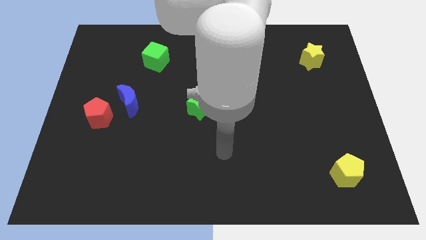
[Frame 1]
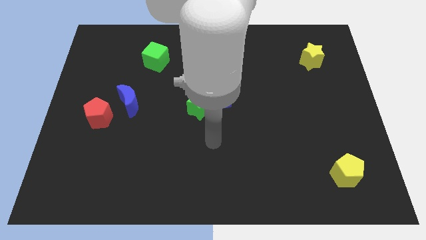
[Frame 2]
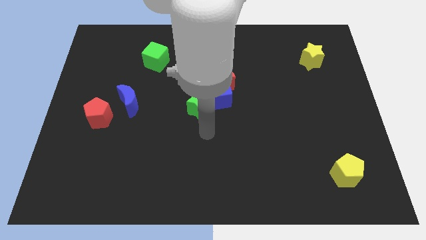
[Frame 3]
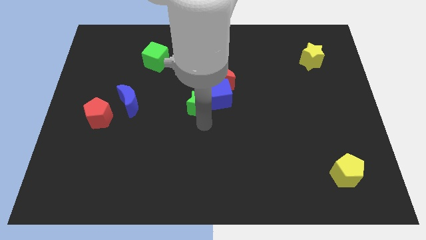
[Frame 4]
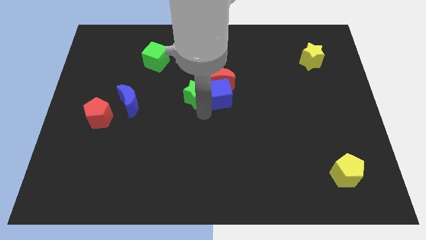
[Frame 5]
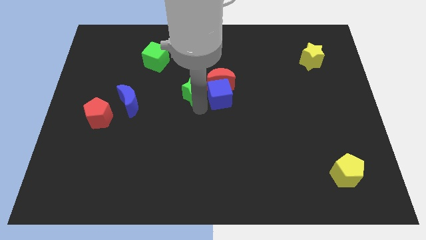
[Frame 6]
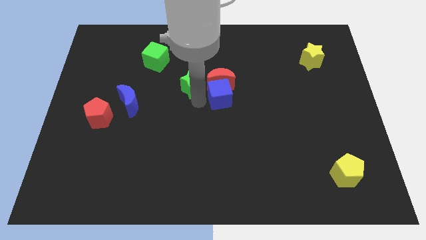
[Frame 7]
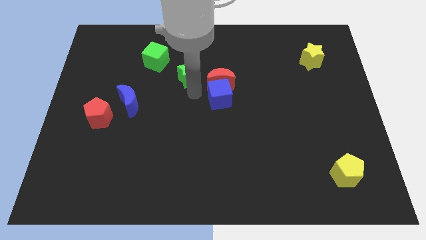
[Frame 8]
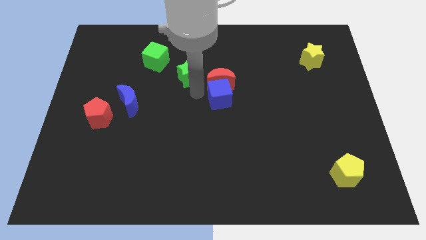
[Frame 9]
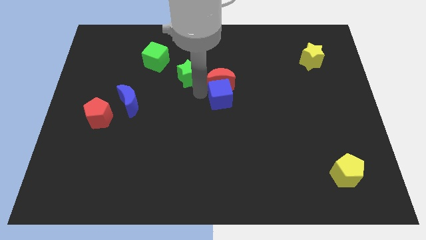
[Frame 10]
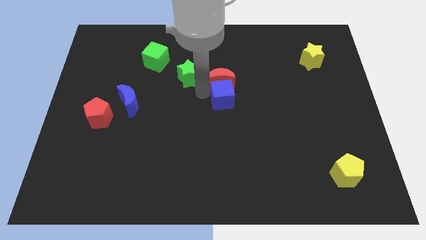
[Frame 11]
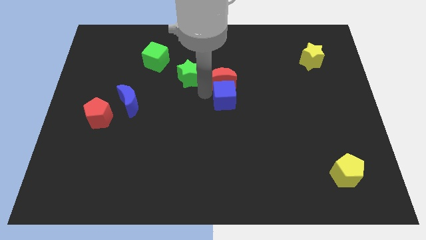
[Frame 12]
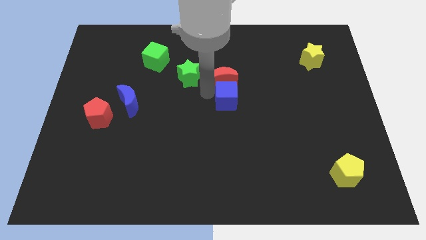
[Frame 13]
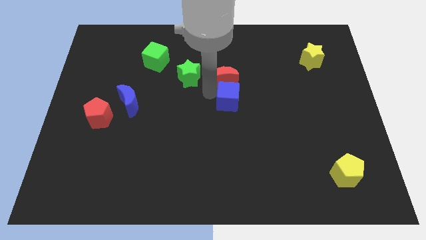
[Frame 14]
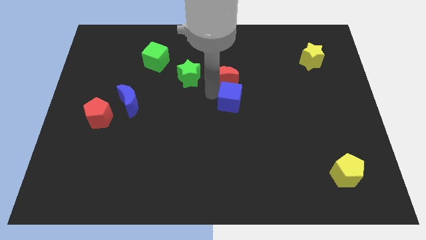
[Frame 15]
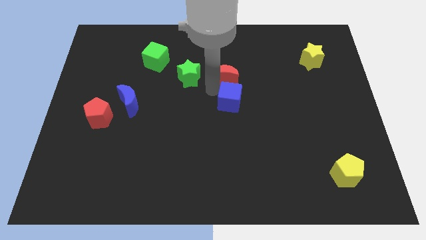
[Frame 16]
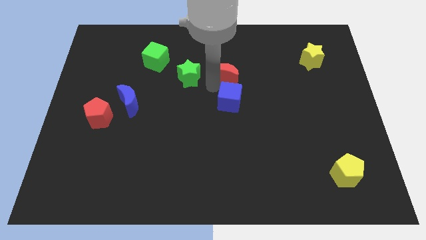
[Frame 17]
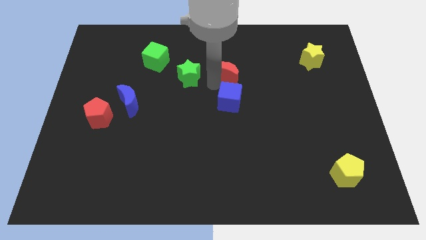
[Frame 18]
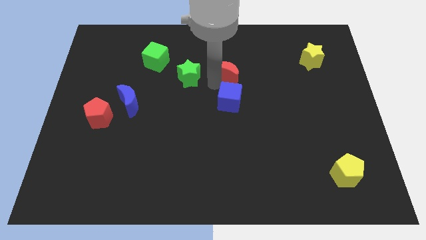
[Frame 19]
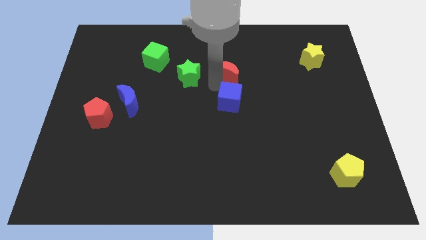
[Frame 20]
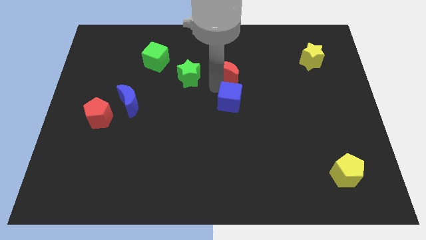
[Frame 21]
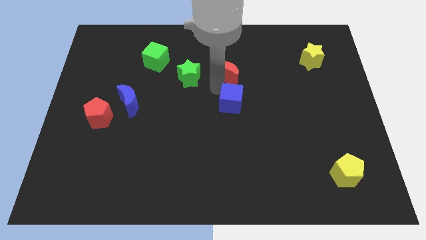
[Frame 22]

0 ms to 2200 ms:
separate the blue cube from the red moon and green star

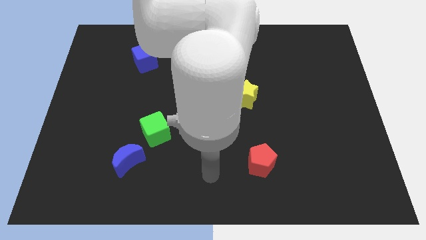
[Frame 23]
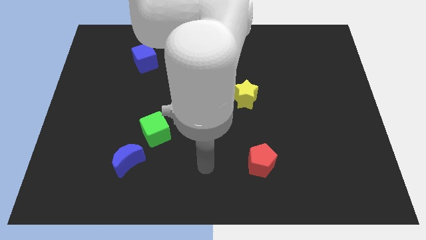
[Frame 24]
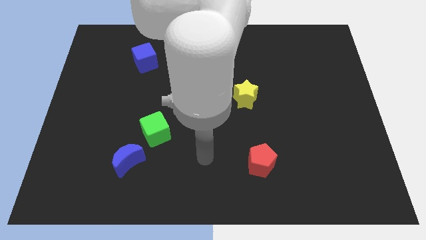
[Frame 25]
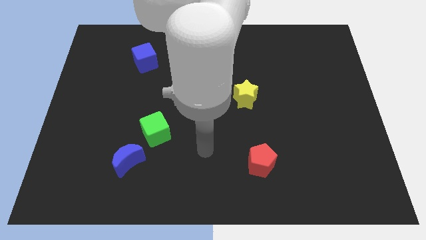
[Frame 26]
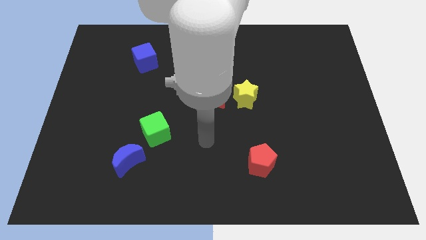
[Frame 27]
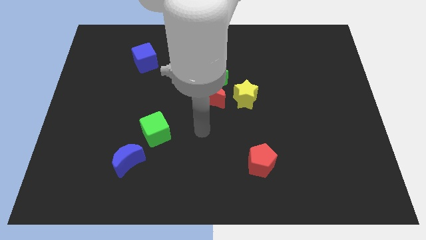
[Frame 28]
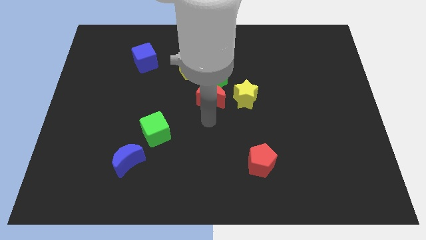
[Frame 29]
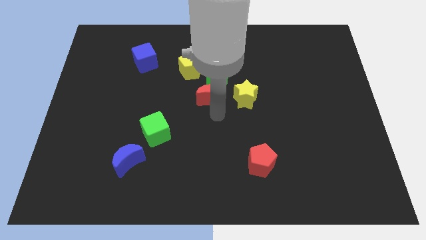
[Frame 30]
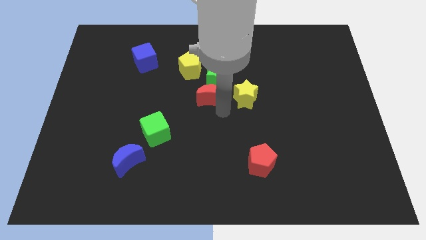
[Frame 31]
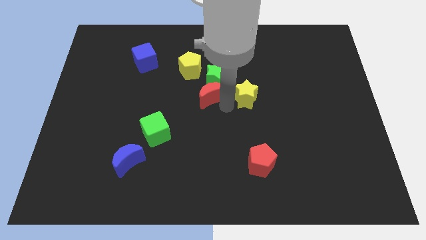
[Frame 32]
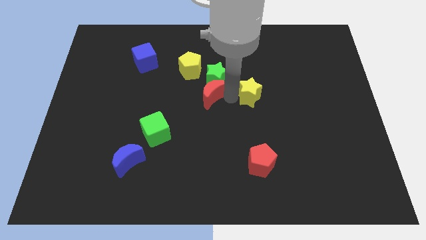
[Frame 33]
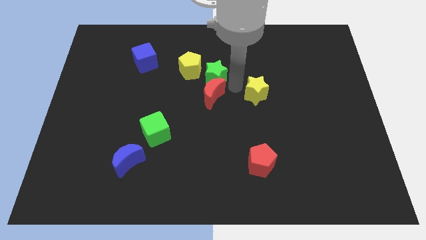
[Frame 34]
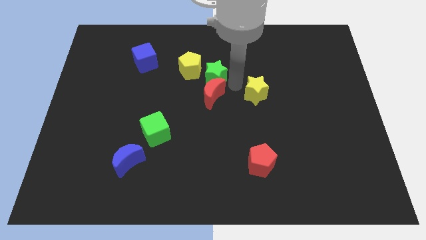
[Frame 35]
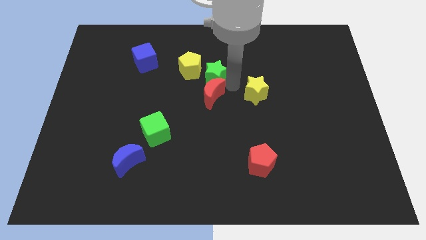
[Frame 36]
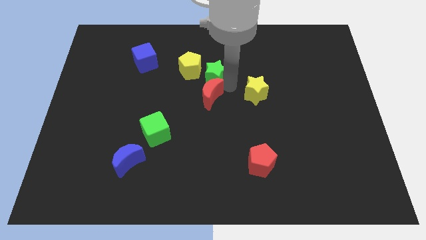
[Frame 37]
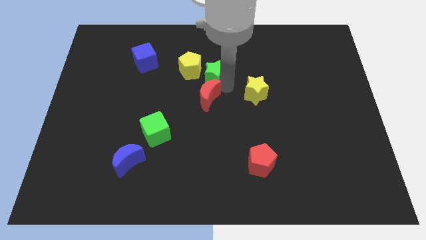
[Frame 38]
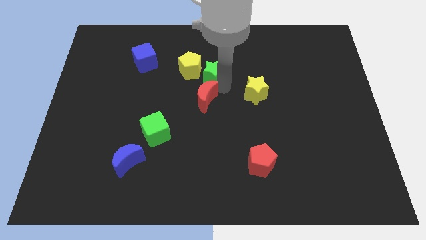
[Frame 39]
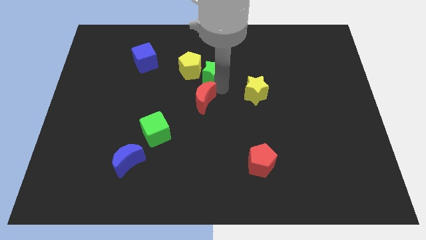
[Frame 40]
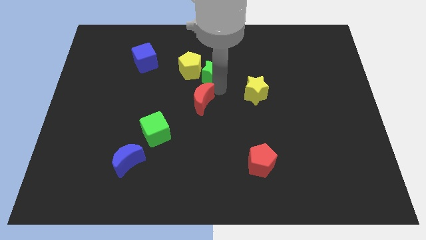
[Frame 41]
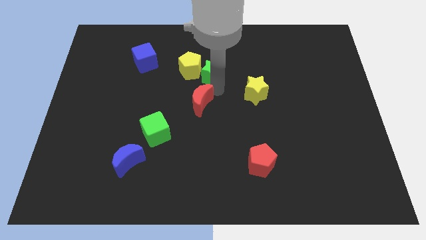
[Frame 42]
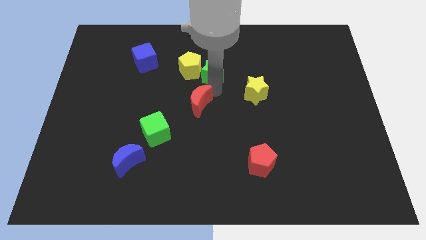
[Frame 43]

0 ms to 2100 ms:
move the red moon away from the green star and yellow star

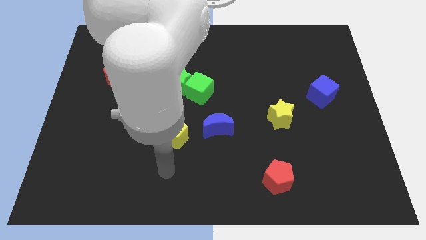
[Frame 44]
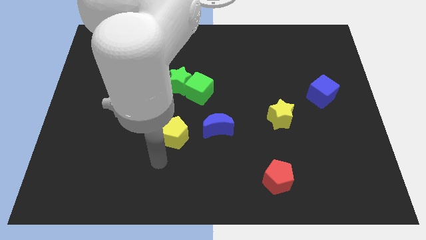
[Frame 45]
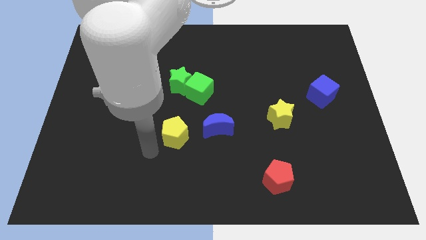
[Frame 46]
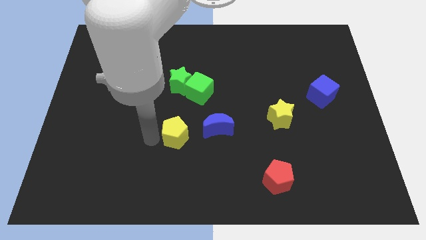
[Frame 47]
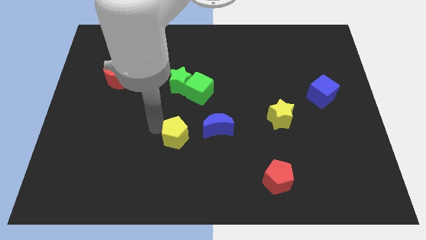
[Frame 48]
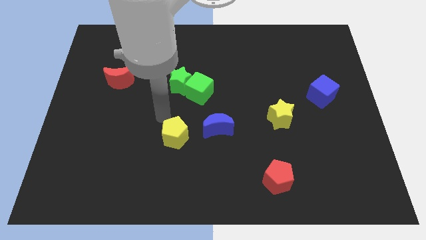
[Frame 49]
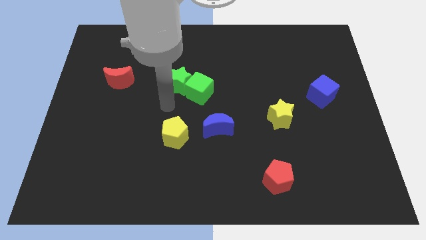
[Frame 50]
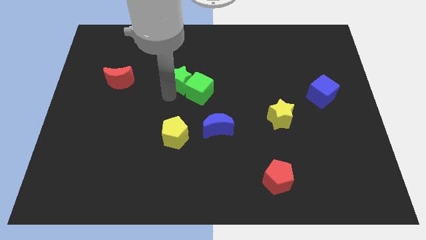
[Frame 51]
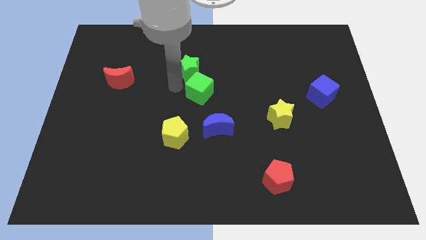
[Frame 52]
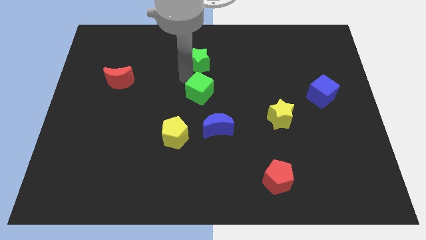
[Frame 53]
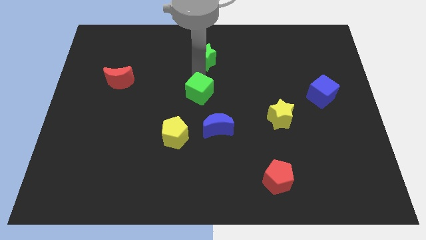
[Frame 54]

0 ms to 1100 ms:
separate the green cube from the green star

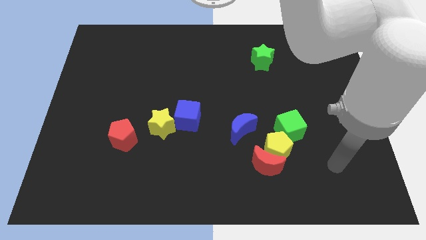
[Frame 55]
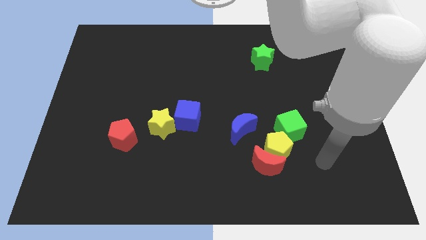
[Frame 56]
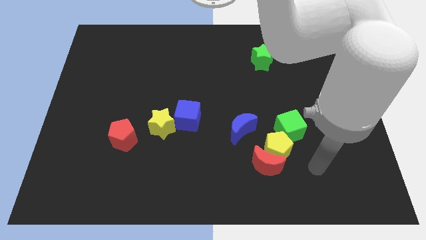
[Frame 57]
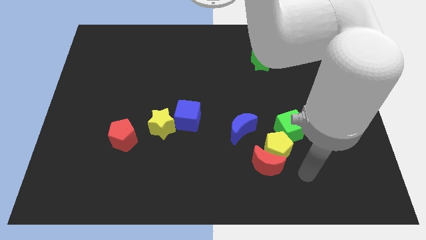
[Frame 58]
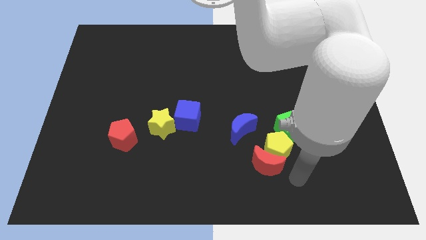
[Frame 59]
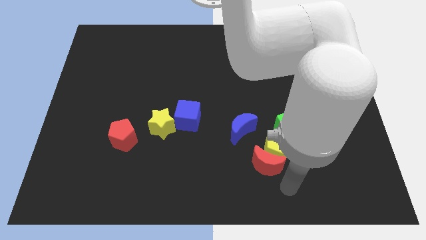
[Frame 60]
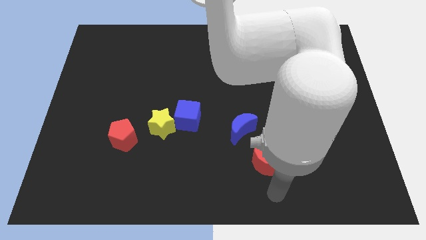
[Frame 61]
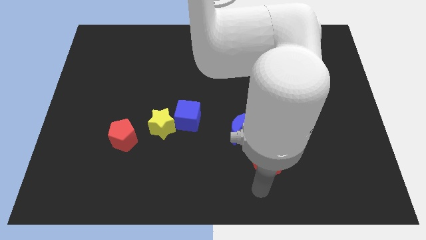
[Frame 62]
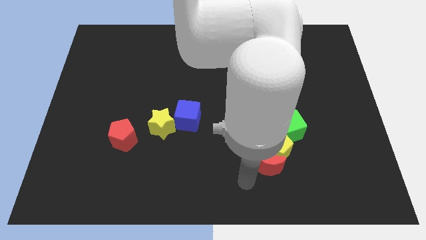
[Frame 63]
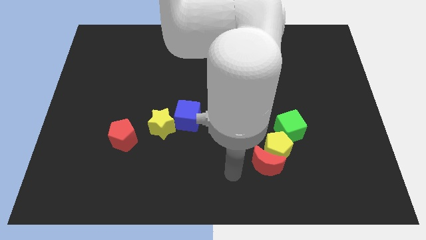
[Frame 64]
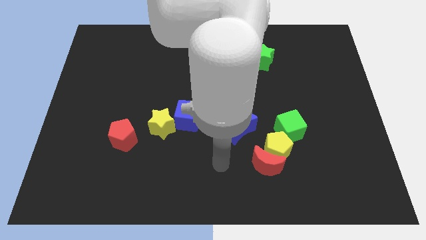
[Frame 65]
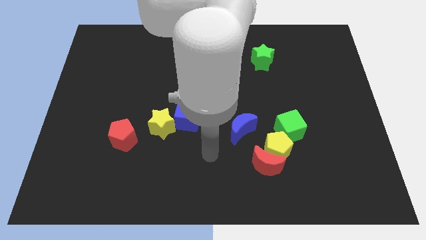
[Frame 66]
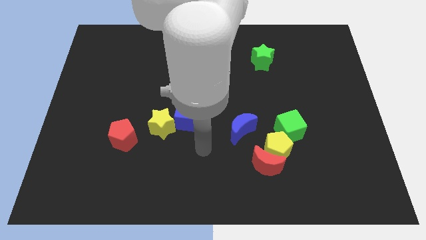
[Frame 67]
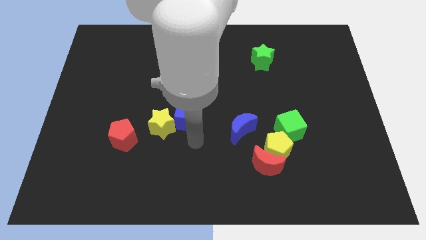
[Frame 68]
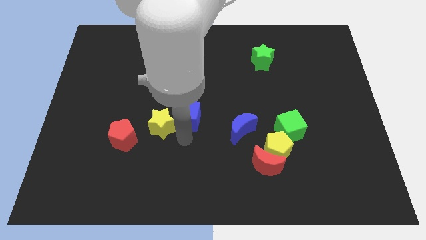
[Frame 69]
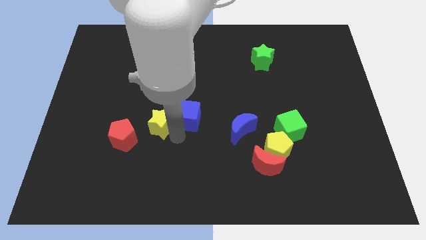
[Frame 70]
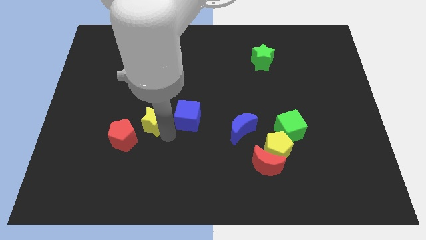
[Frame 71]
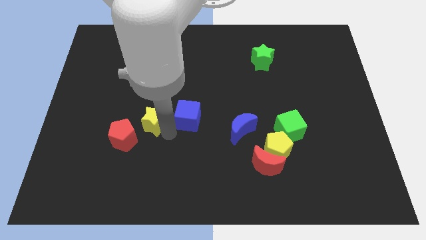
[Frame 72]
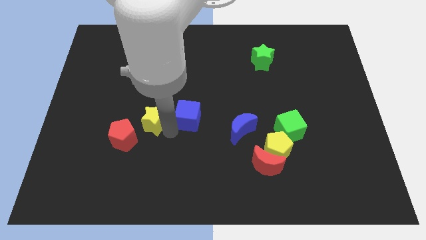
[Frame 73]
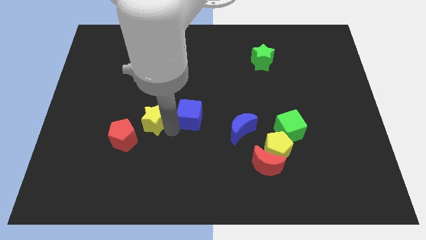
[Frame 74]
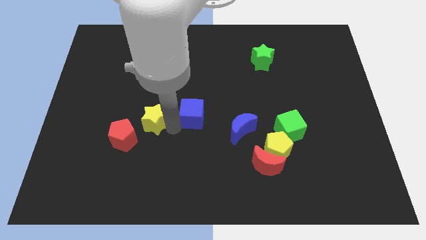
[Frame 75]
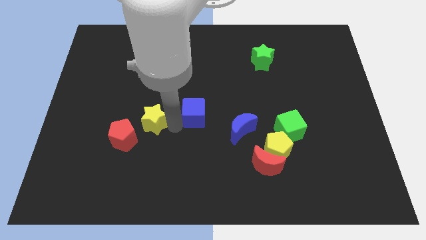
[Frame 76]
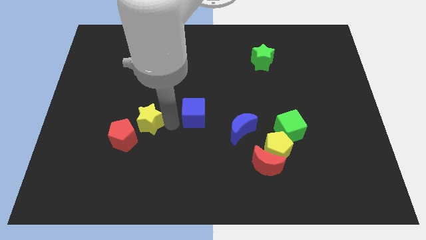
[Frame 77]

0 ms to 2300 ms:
separate the blue cube from the yellow star

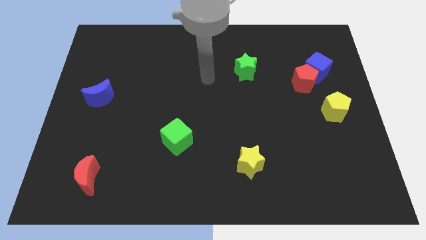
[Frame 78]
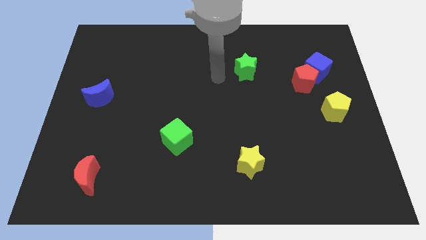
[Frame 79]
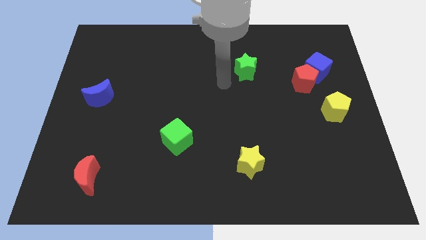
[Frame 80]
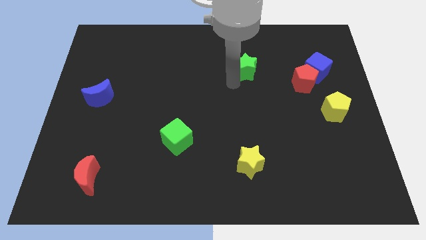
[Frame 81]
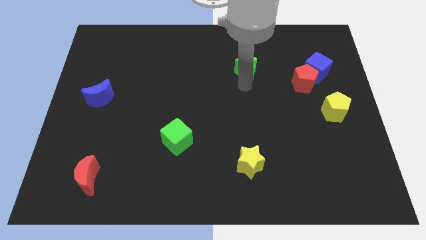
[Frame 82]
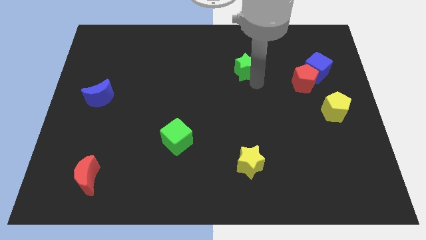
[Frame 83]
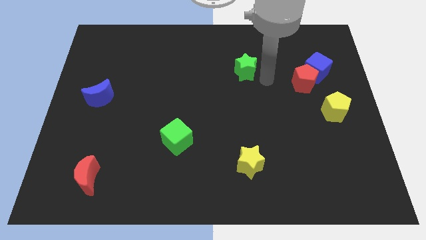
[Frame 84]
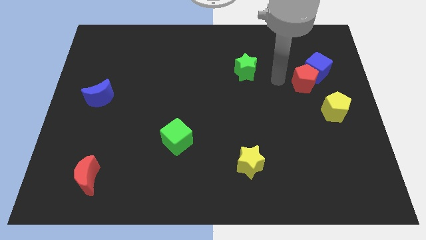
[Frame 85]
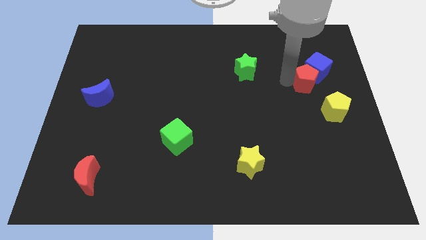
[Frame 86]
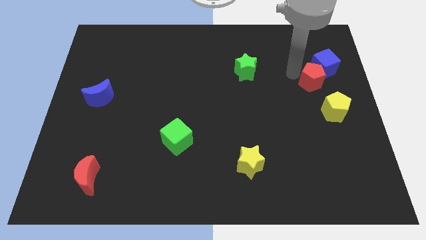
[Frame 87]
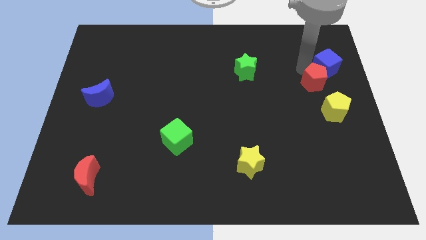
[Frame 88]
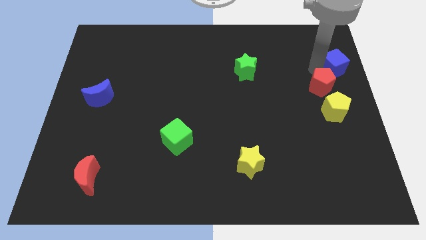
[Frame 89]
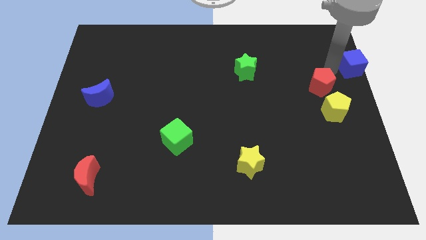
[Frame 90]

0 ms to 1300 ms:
move the red pentagon away from the blue cube

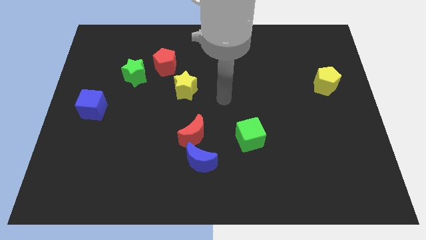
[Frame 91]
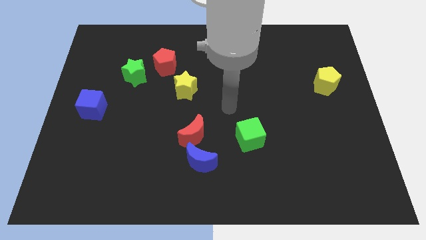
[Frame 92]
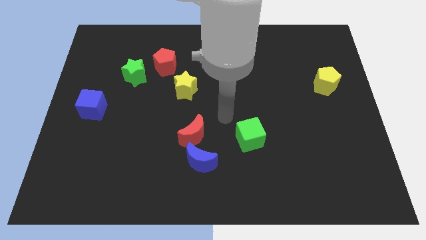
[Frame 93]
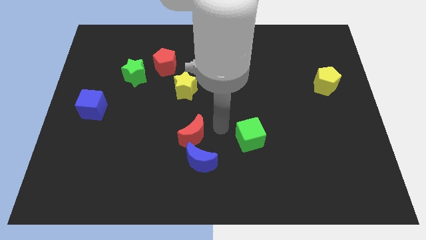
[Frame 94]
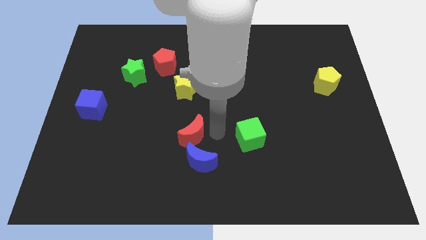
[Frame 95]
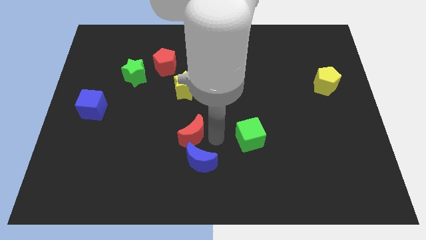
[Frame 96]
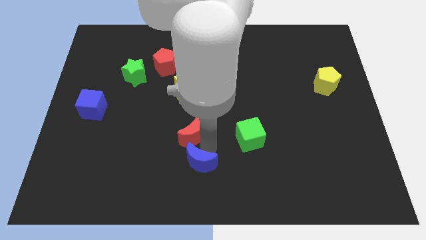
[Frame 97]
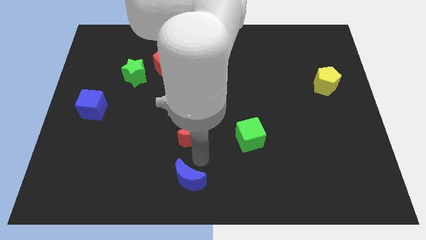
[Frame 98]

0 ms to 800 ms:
separate the red moon from the blue moon
